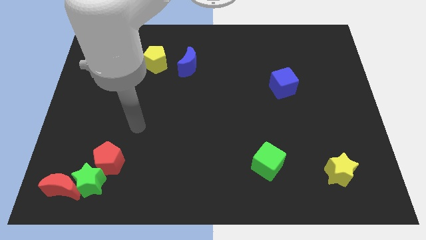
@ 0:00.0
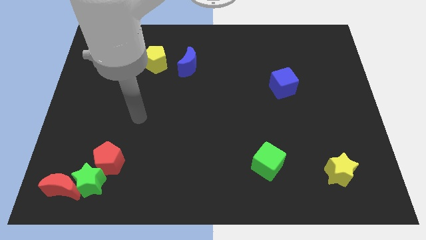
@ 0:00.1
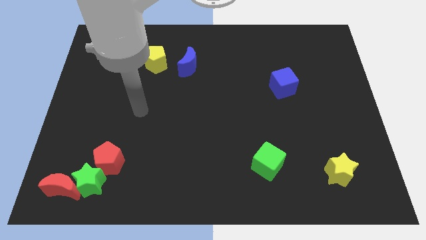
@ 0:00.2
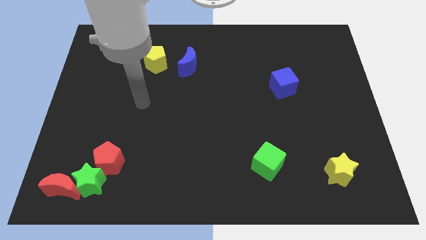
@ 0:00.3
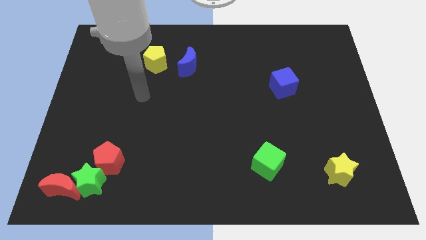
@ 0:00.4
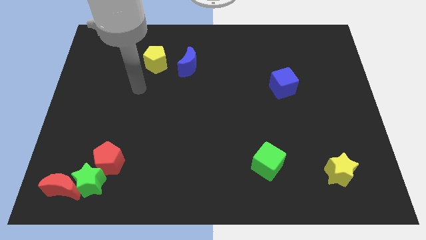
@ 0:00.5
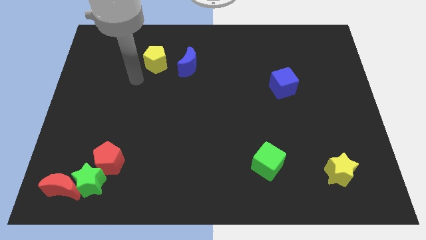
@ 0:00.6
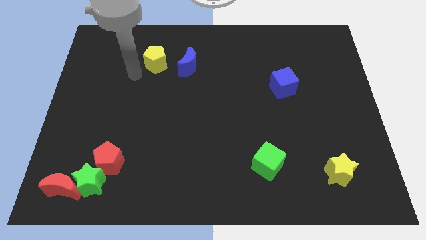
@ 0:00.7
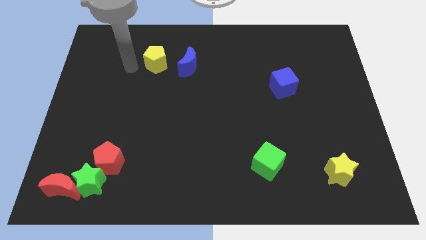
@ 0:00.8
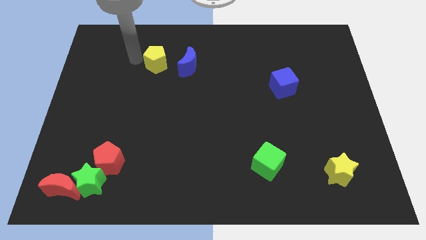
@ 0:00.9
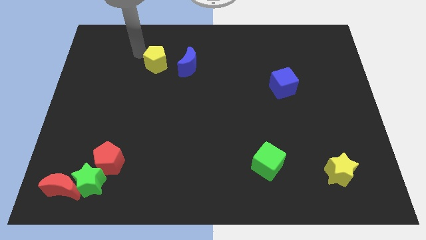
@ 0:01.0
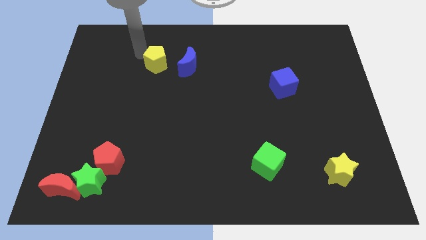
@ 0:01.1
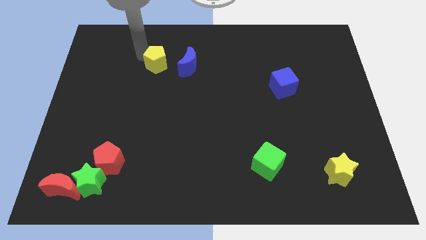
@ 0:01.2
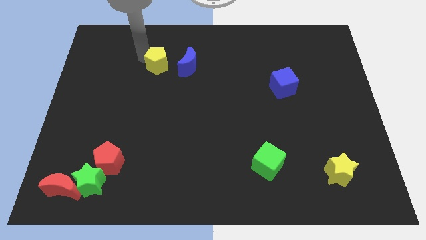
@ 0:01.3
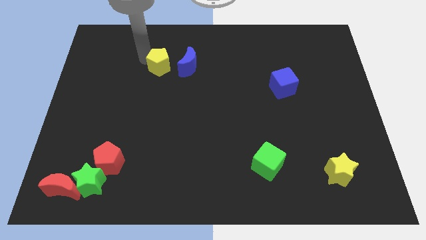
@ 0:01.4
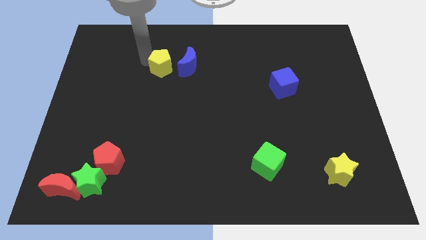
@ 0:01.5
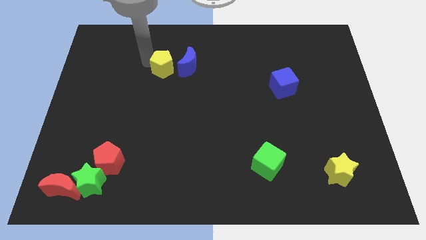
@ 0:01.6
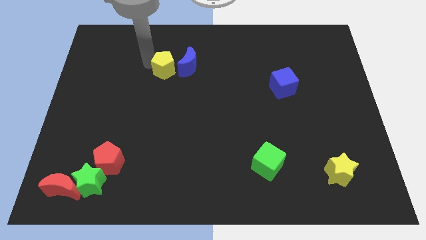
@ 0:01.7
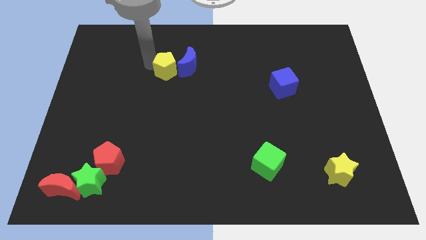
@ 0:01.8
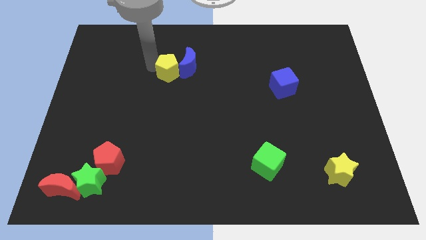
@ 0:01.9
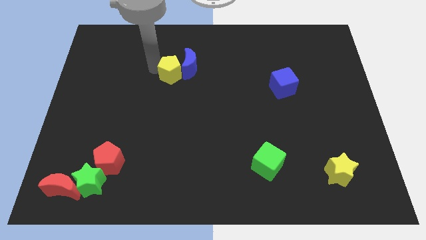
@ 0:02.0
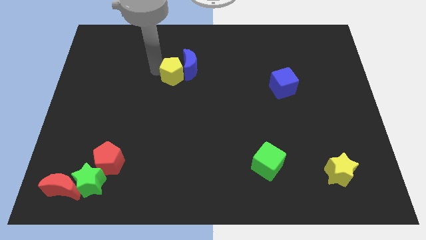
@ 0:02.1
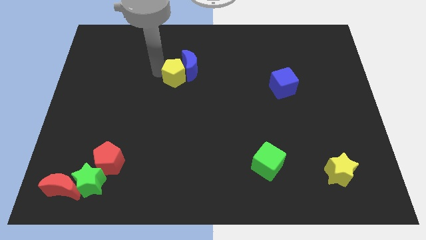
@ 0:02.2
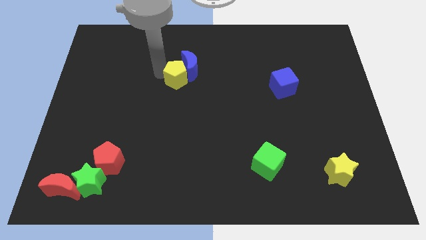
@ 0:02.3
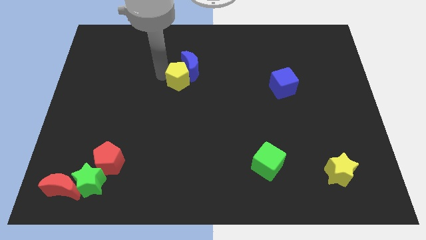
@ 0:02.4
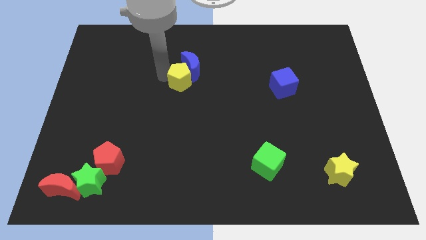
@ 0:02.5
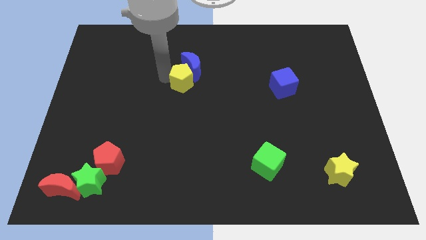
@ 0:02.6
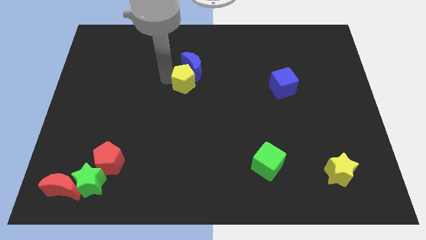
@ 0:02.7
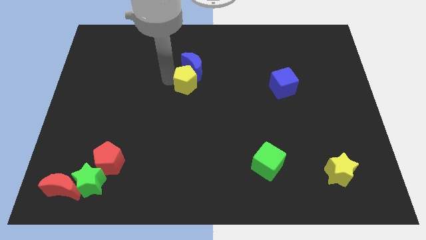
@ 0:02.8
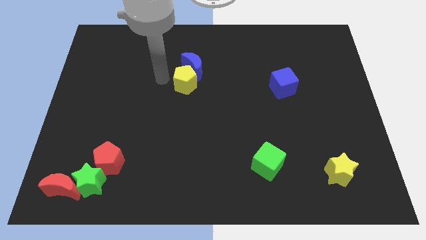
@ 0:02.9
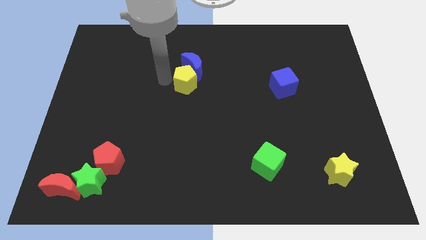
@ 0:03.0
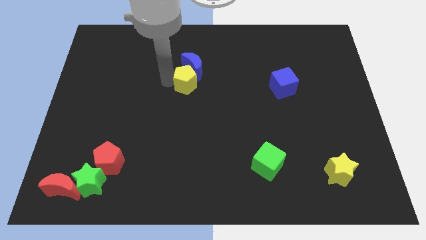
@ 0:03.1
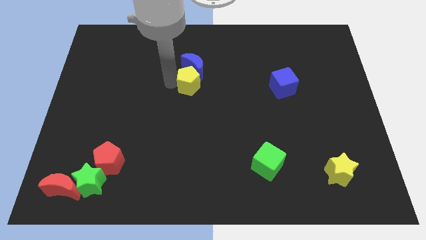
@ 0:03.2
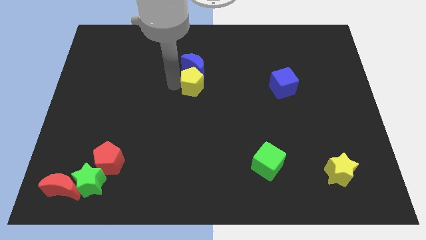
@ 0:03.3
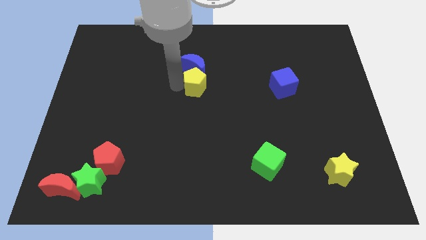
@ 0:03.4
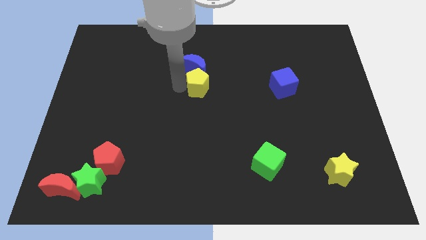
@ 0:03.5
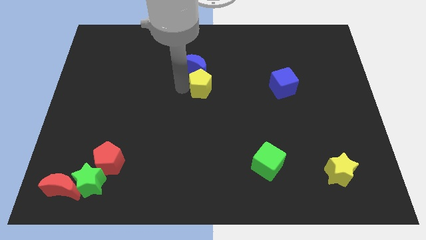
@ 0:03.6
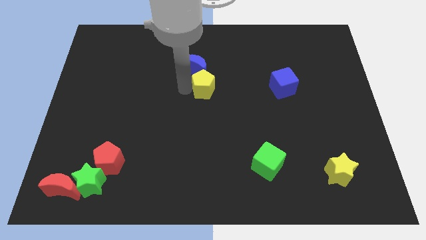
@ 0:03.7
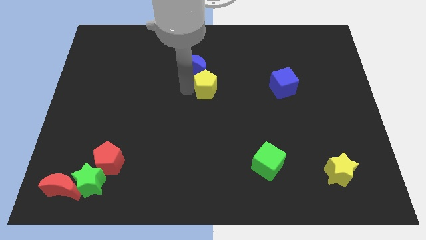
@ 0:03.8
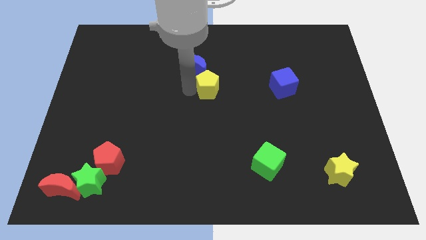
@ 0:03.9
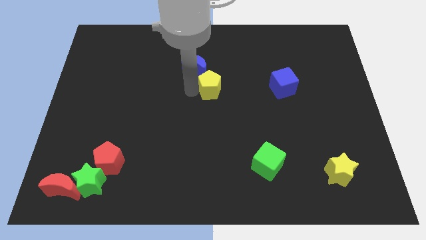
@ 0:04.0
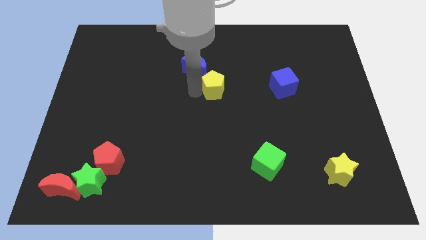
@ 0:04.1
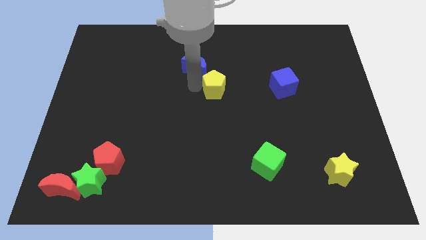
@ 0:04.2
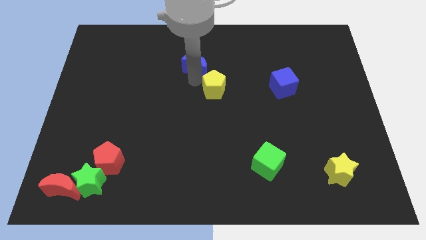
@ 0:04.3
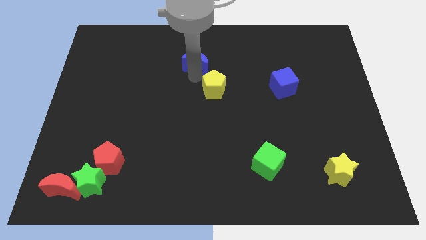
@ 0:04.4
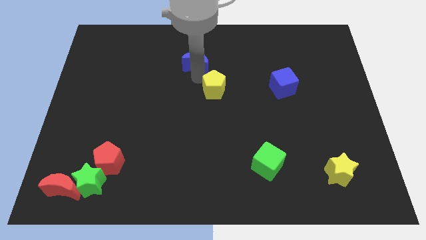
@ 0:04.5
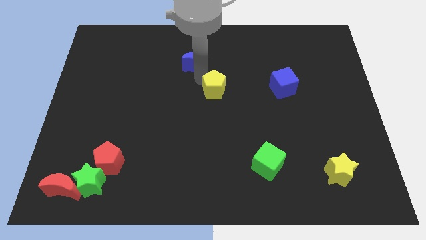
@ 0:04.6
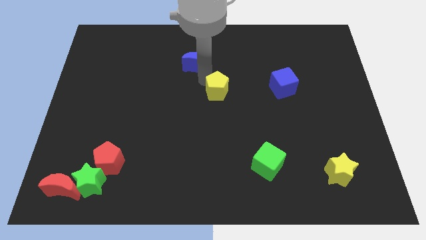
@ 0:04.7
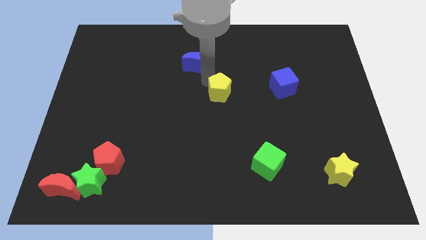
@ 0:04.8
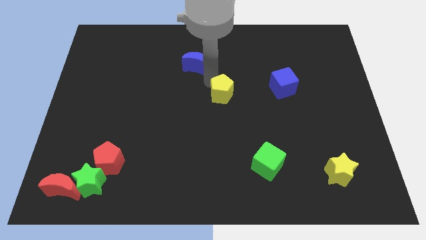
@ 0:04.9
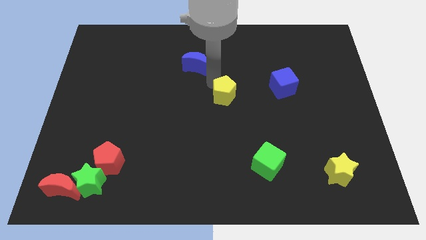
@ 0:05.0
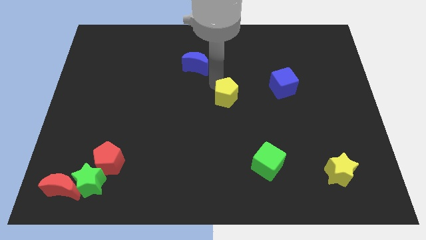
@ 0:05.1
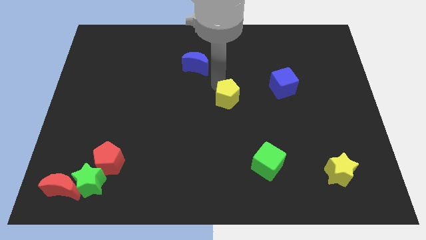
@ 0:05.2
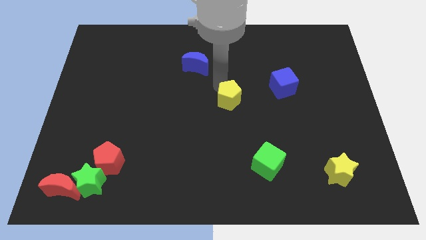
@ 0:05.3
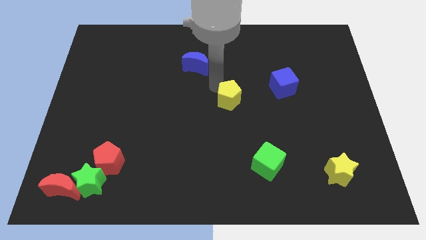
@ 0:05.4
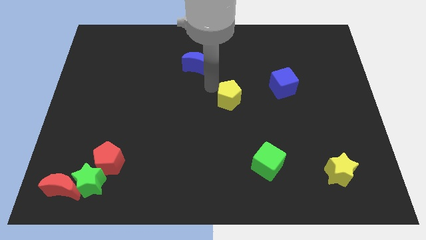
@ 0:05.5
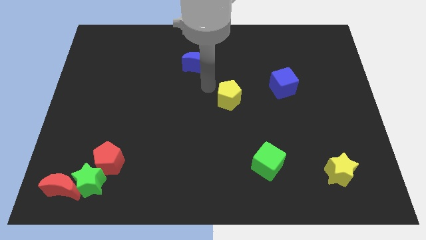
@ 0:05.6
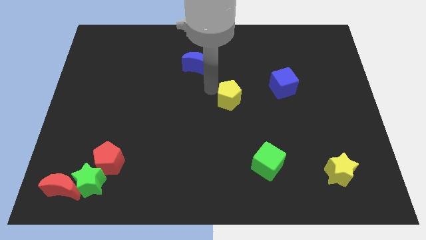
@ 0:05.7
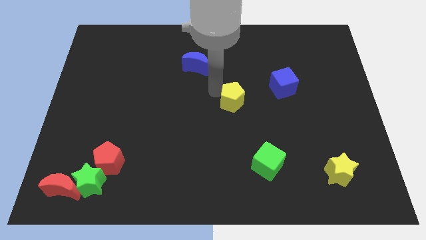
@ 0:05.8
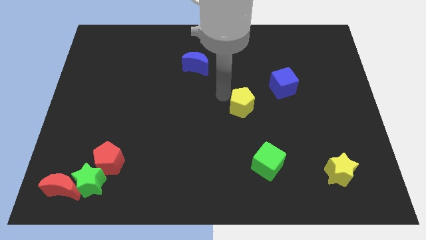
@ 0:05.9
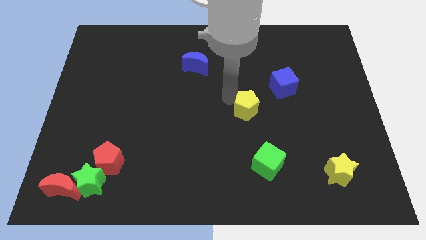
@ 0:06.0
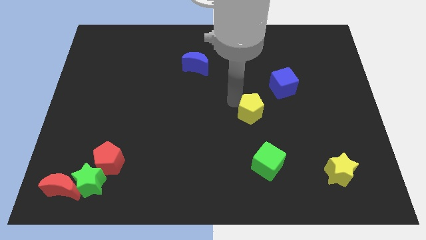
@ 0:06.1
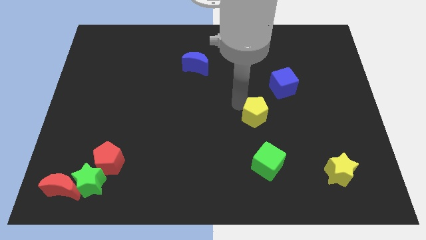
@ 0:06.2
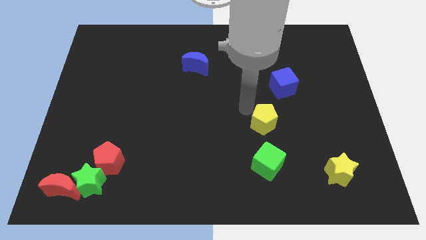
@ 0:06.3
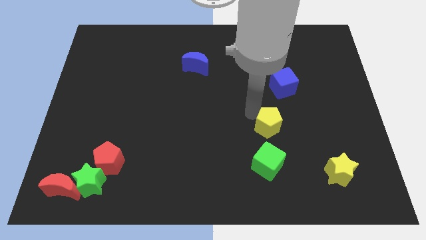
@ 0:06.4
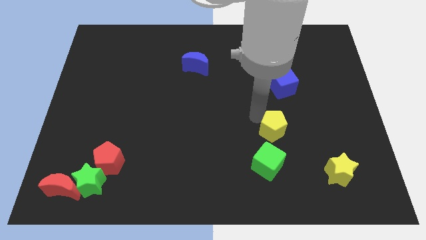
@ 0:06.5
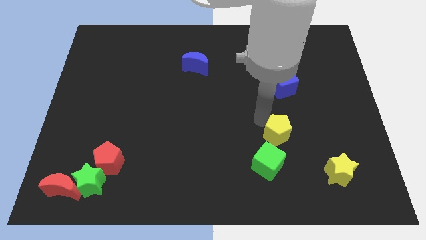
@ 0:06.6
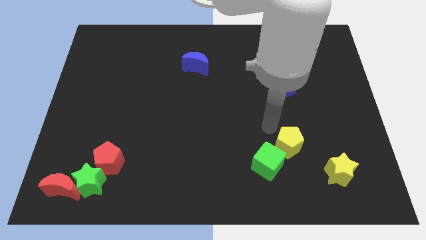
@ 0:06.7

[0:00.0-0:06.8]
move the yellow pentagon just right of the green cube
